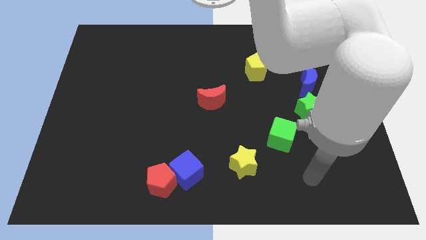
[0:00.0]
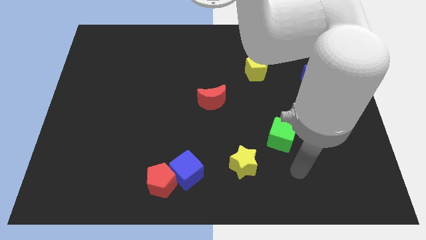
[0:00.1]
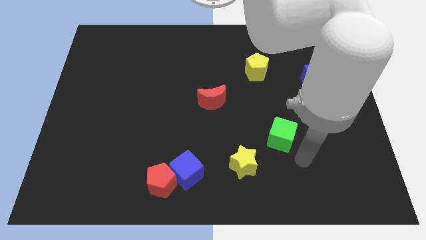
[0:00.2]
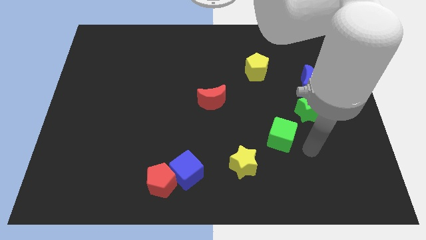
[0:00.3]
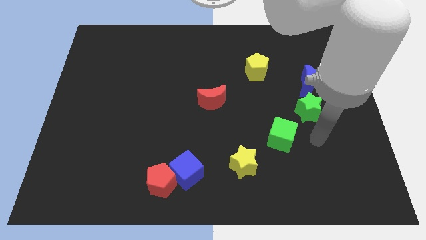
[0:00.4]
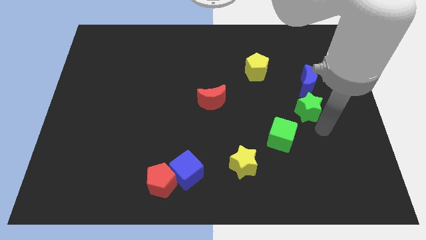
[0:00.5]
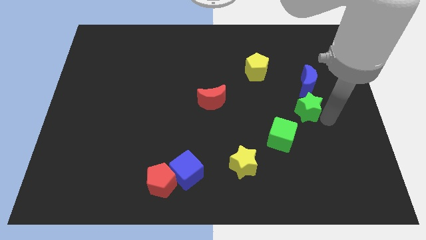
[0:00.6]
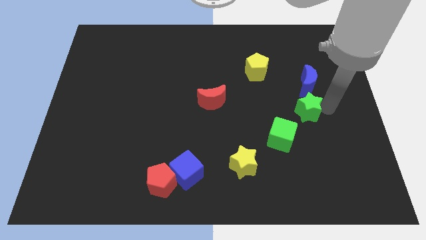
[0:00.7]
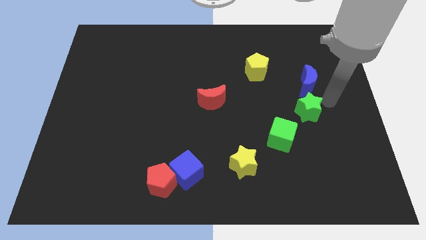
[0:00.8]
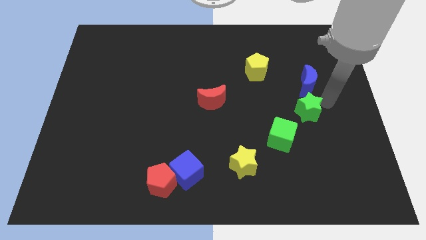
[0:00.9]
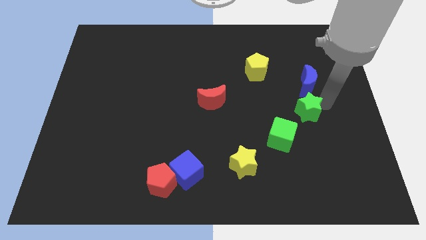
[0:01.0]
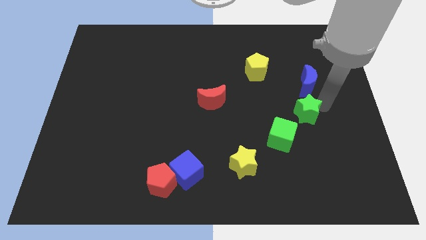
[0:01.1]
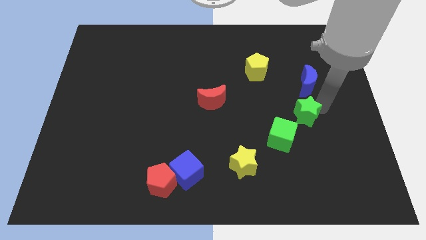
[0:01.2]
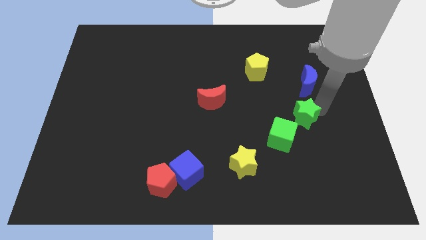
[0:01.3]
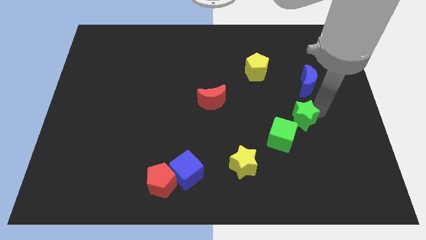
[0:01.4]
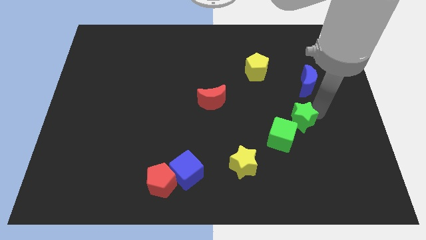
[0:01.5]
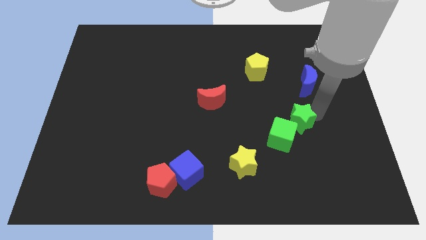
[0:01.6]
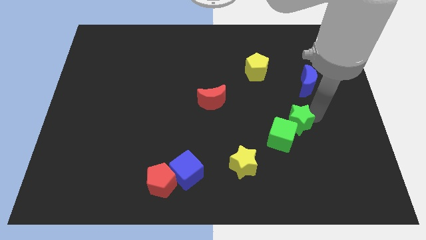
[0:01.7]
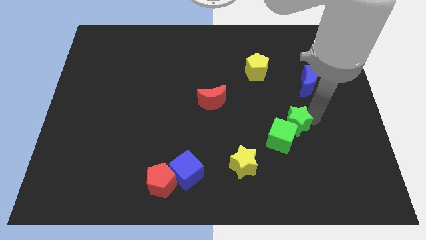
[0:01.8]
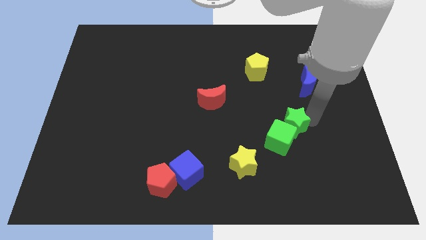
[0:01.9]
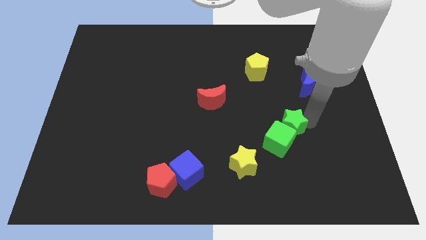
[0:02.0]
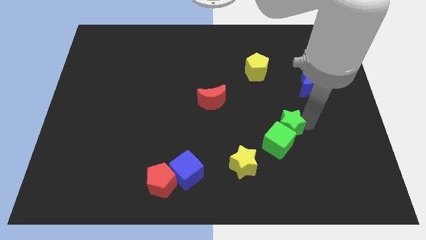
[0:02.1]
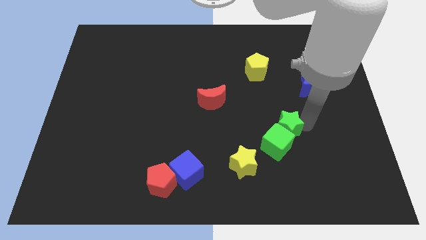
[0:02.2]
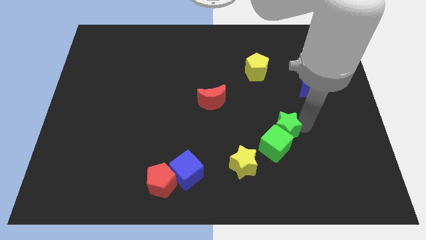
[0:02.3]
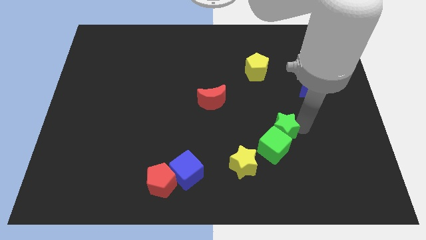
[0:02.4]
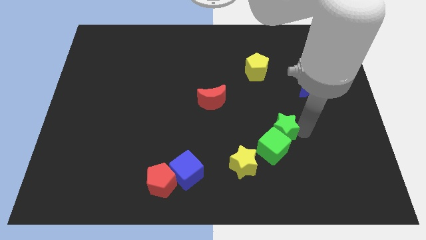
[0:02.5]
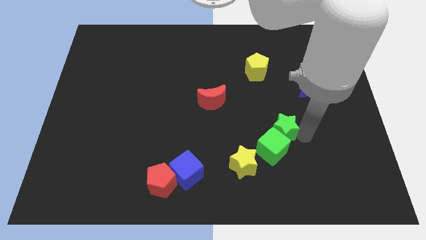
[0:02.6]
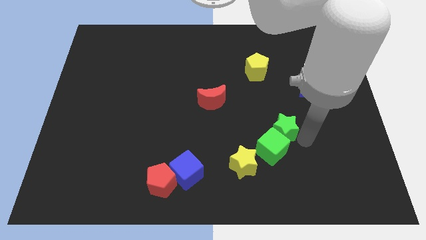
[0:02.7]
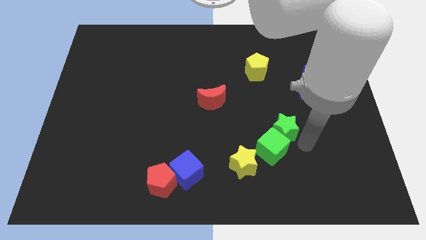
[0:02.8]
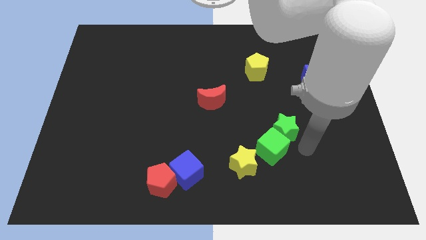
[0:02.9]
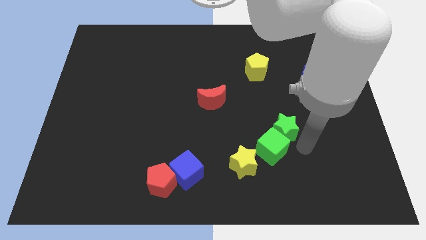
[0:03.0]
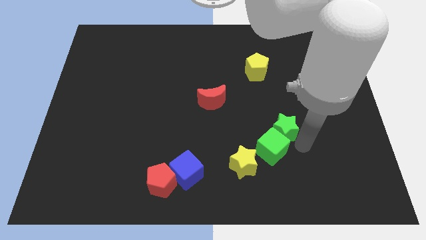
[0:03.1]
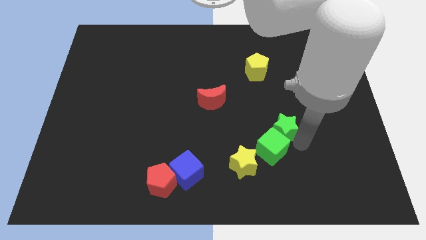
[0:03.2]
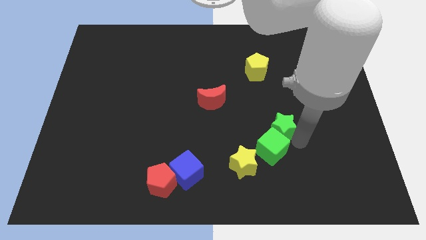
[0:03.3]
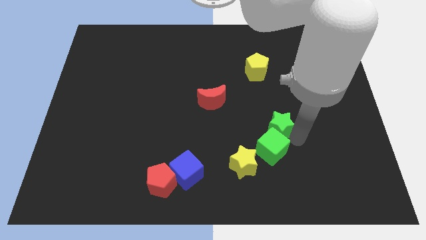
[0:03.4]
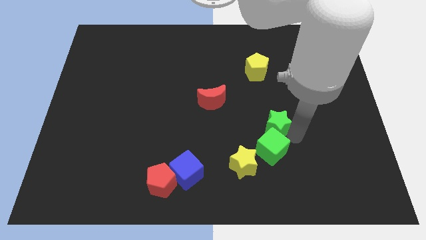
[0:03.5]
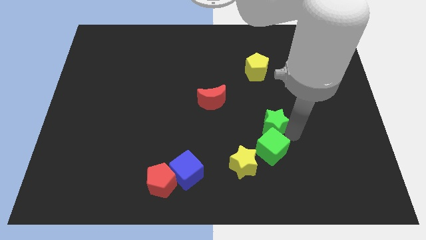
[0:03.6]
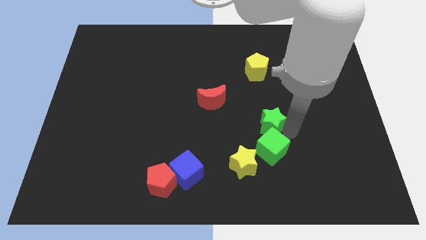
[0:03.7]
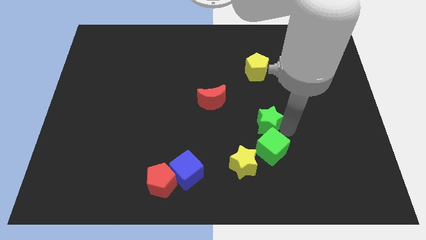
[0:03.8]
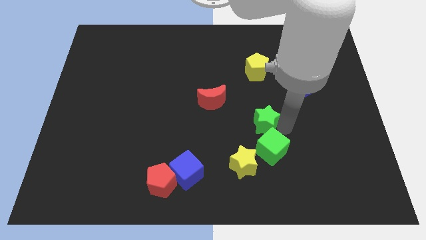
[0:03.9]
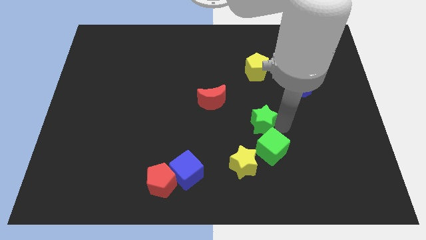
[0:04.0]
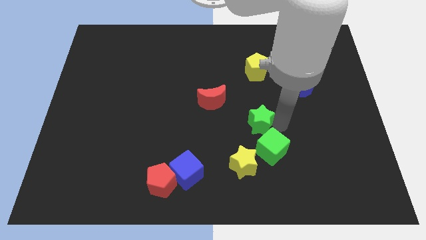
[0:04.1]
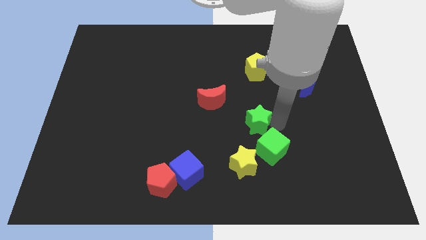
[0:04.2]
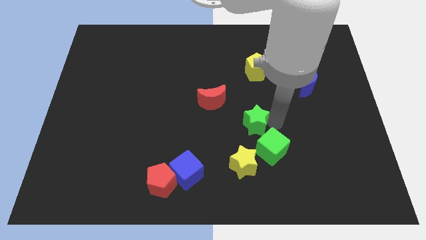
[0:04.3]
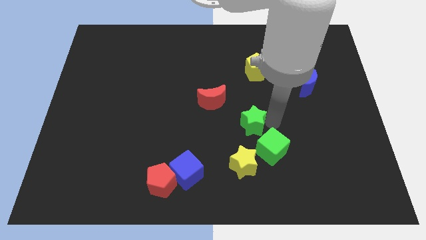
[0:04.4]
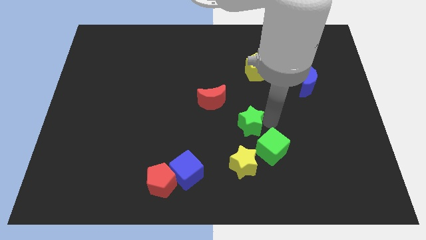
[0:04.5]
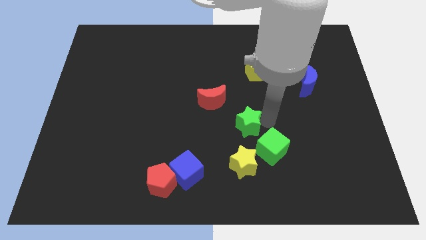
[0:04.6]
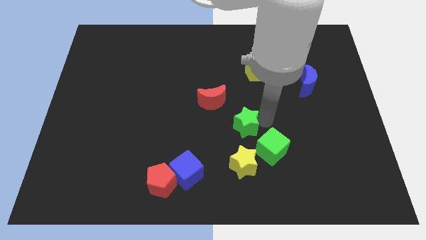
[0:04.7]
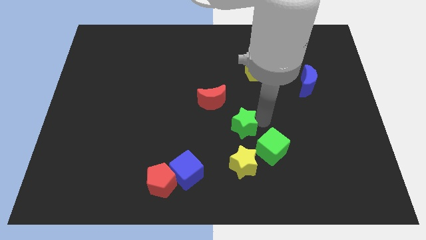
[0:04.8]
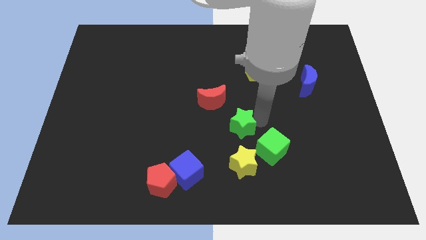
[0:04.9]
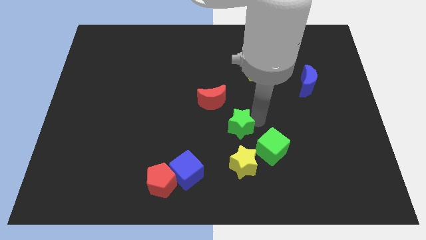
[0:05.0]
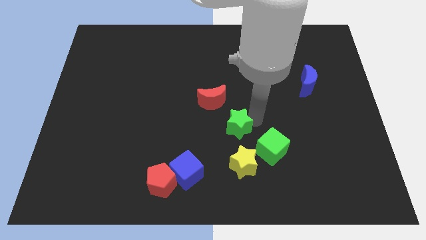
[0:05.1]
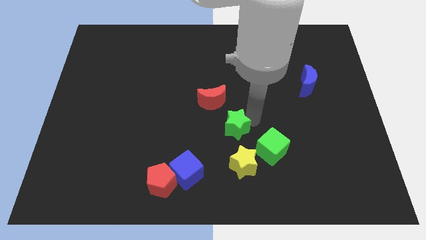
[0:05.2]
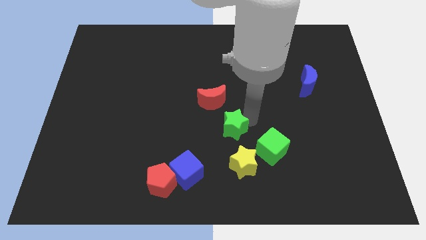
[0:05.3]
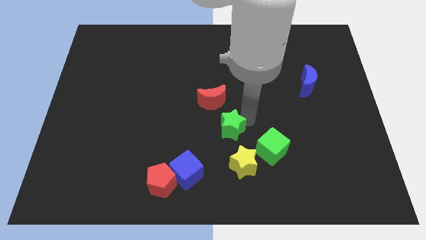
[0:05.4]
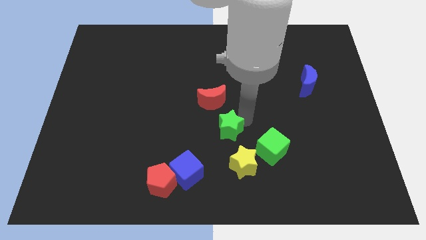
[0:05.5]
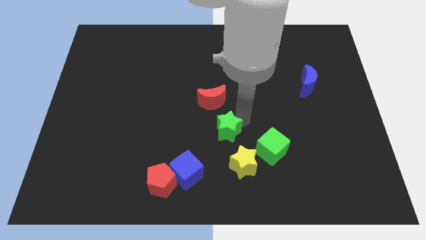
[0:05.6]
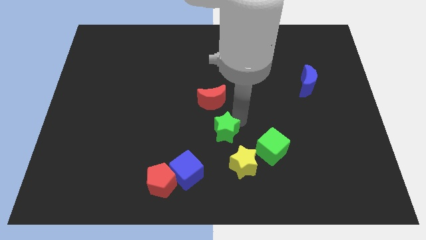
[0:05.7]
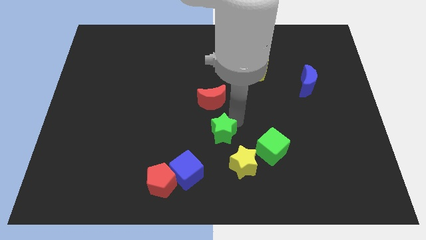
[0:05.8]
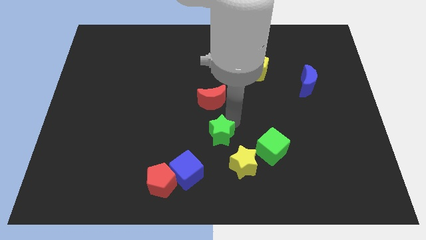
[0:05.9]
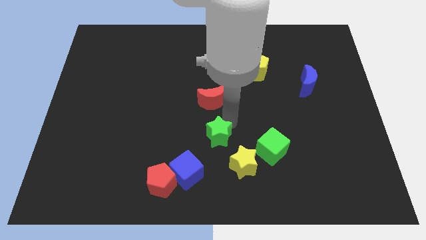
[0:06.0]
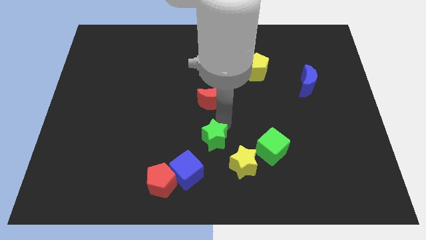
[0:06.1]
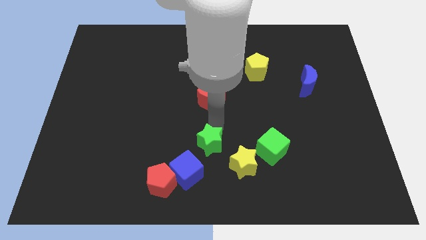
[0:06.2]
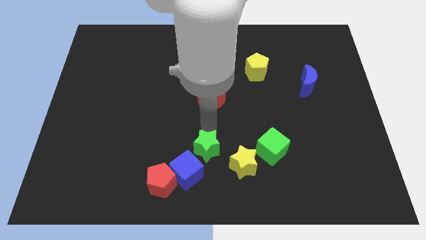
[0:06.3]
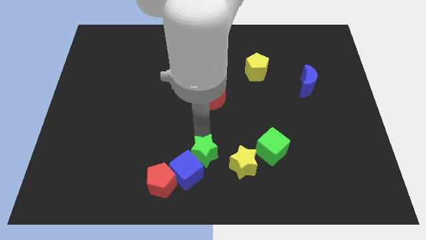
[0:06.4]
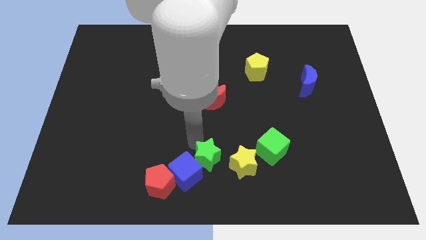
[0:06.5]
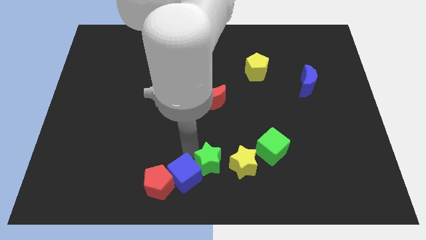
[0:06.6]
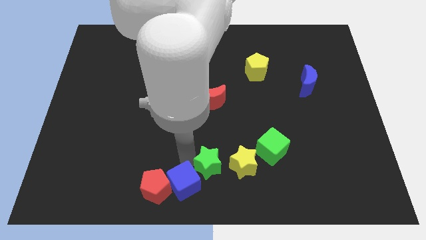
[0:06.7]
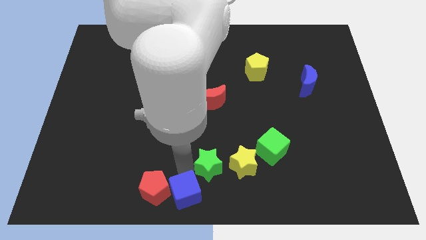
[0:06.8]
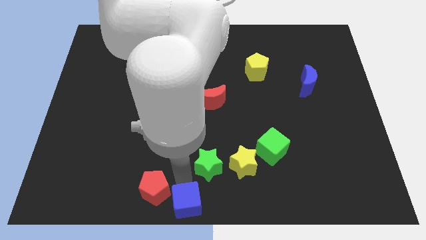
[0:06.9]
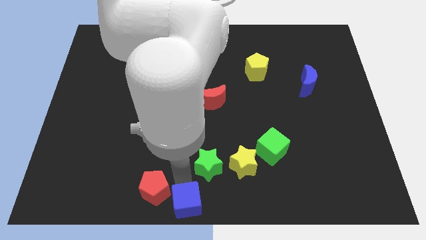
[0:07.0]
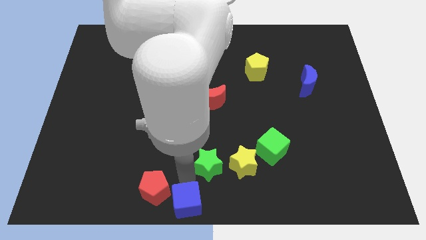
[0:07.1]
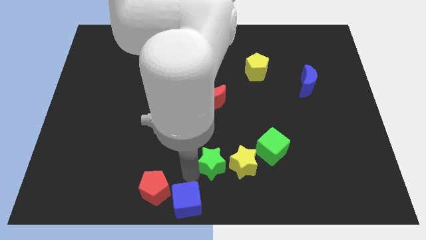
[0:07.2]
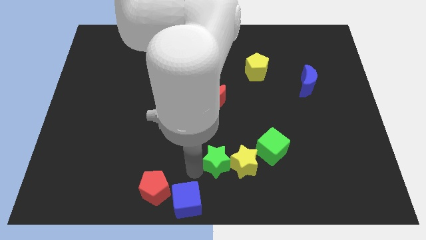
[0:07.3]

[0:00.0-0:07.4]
slide the green star next to the yellow star
